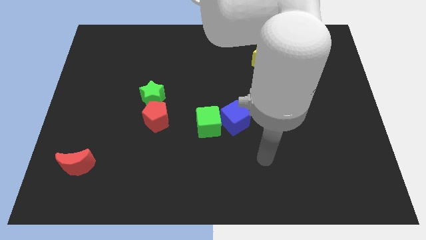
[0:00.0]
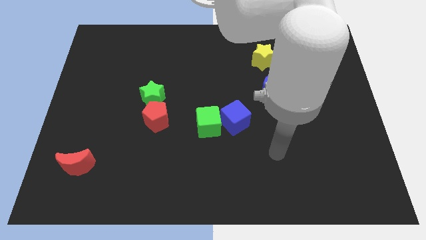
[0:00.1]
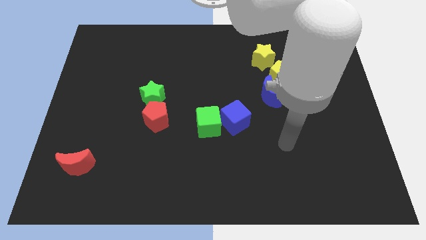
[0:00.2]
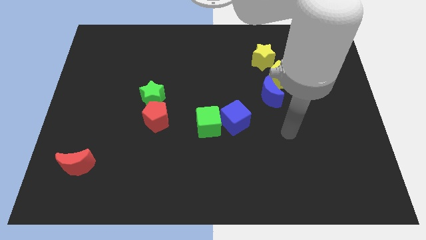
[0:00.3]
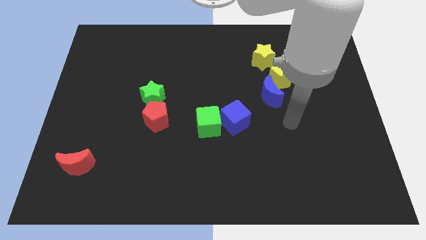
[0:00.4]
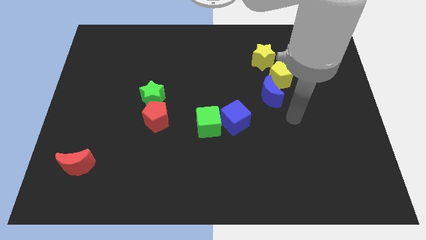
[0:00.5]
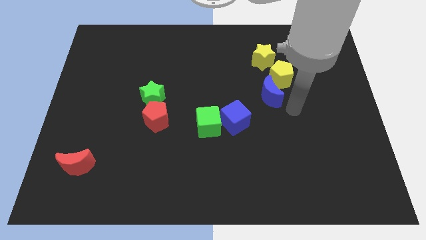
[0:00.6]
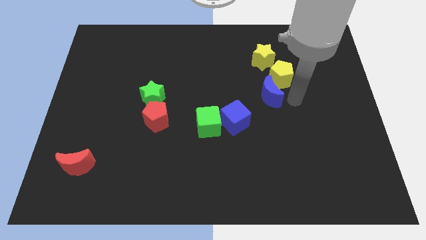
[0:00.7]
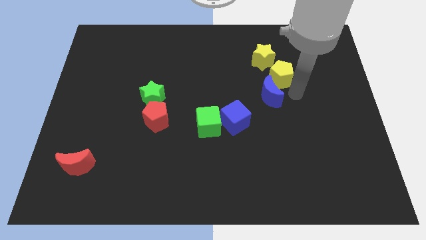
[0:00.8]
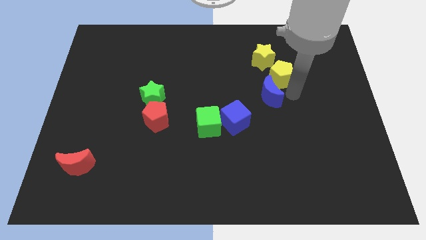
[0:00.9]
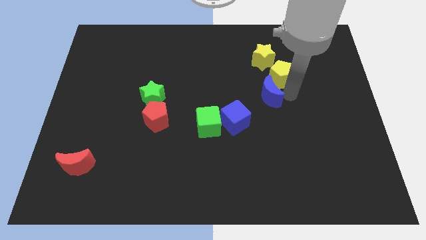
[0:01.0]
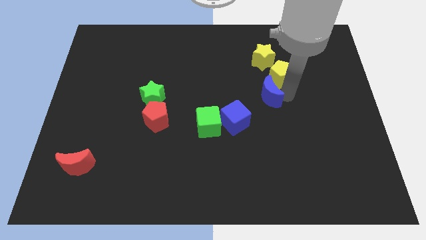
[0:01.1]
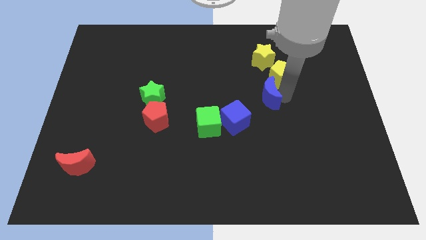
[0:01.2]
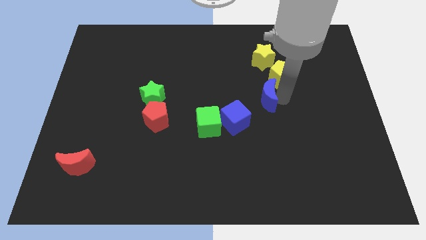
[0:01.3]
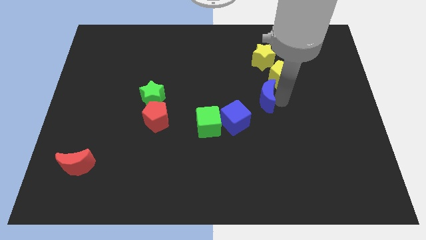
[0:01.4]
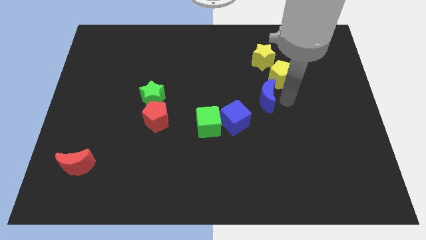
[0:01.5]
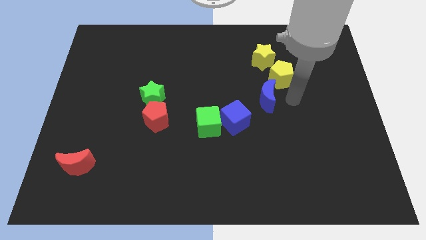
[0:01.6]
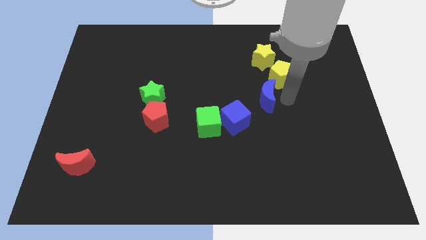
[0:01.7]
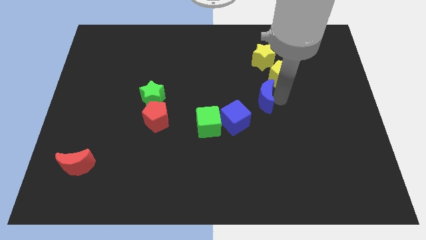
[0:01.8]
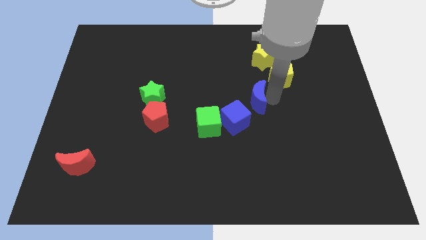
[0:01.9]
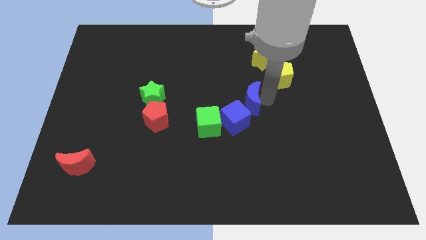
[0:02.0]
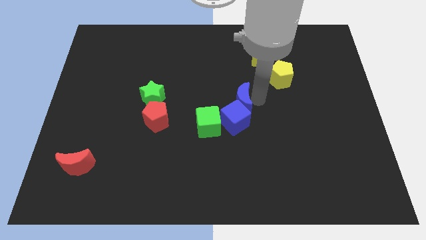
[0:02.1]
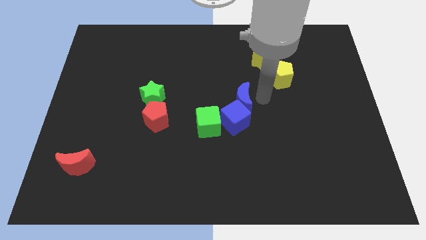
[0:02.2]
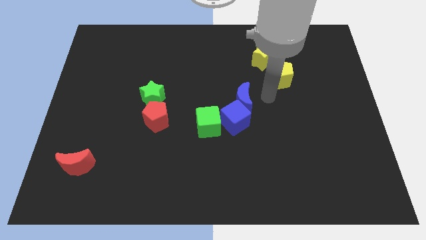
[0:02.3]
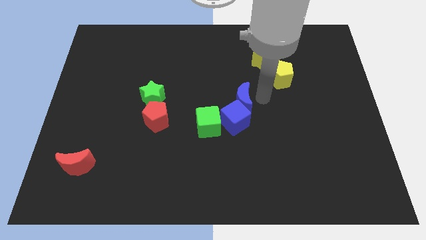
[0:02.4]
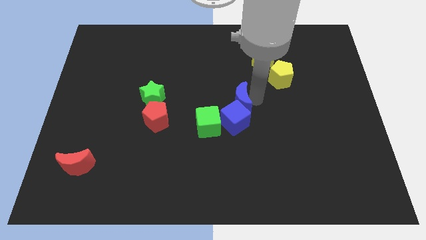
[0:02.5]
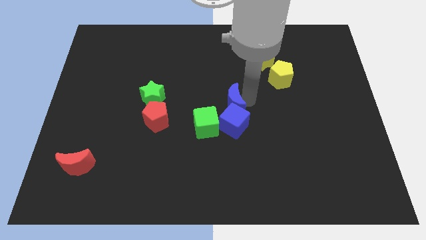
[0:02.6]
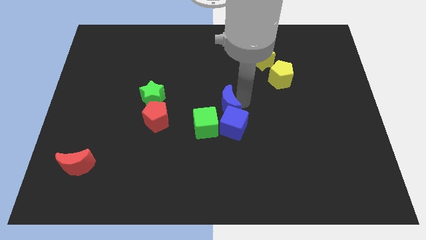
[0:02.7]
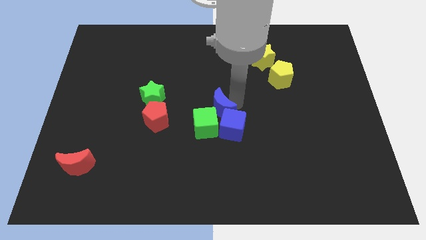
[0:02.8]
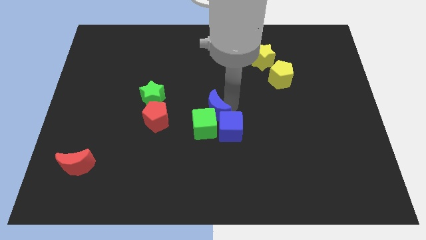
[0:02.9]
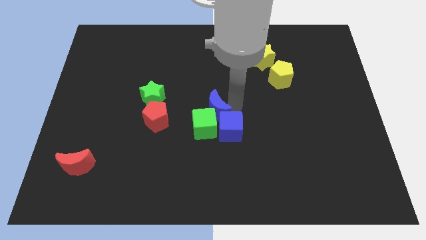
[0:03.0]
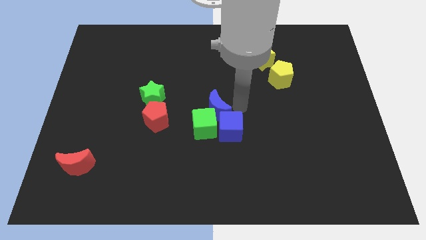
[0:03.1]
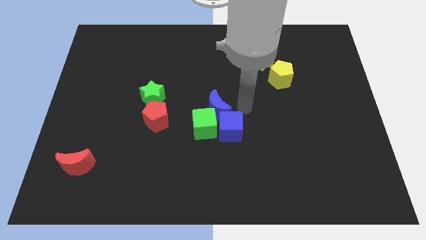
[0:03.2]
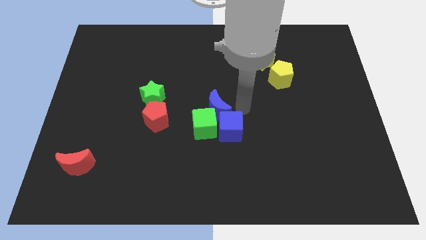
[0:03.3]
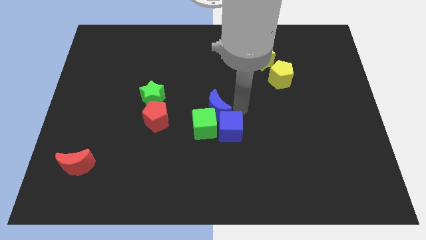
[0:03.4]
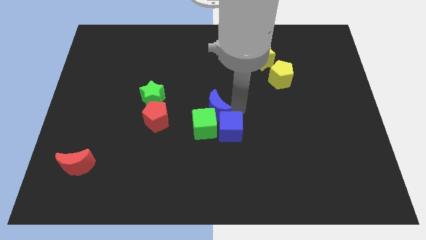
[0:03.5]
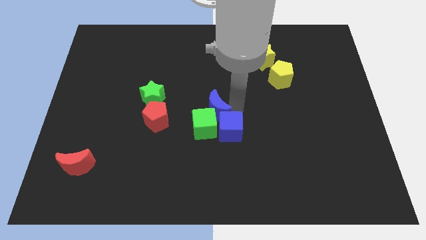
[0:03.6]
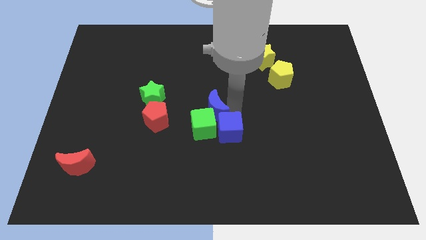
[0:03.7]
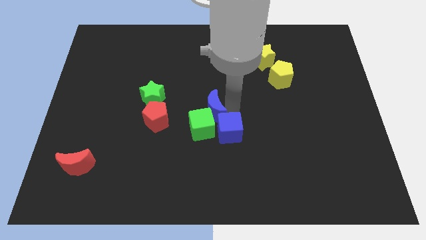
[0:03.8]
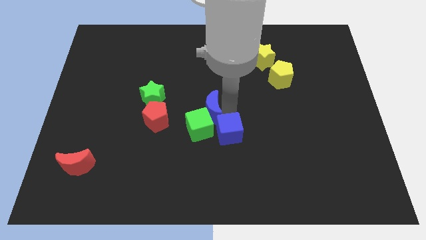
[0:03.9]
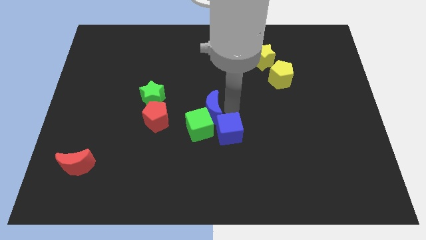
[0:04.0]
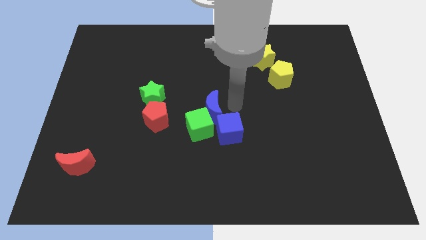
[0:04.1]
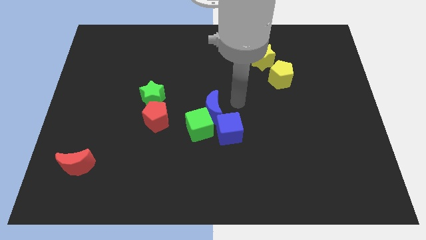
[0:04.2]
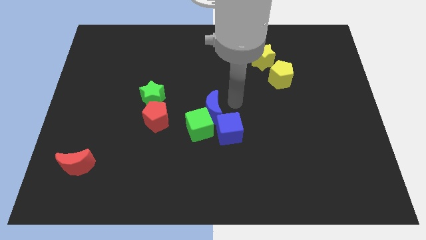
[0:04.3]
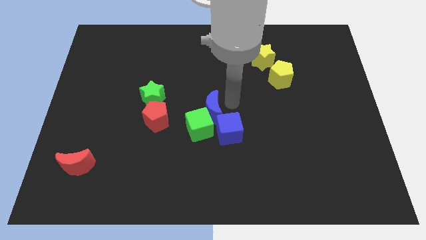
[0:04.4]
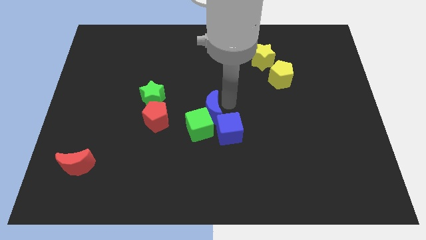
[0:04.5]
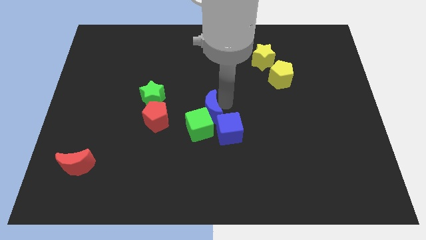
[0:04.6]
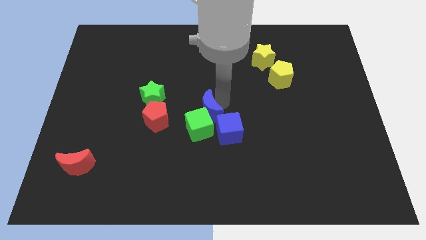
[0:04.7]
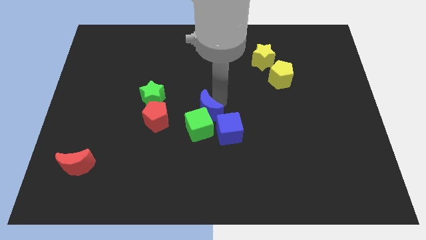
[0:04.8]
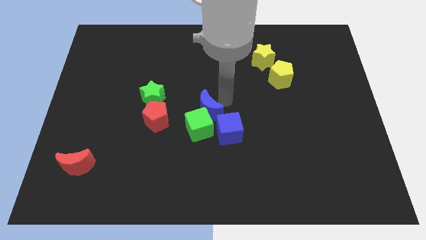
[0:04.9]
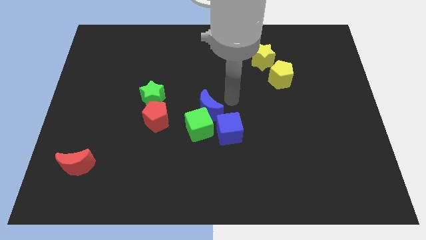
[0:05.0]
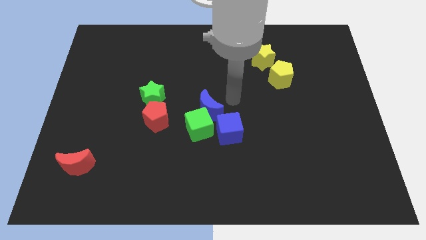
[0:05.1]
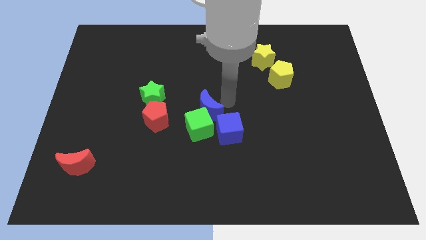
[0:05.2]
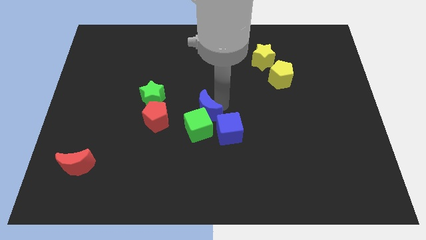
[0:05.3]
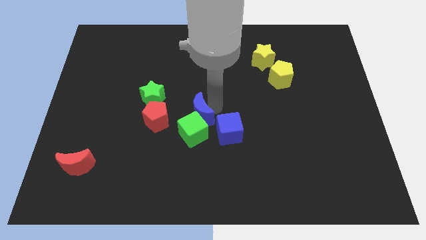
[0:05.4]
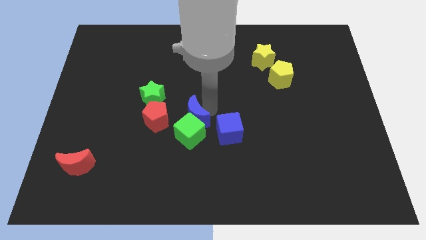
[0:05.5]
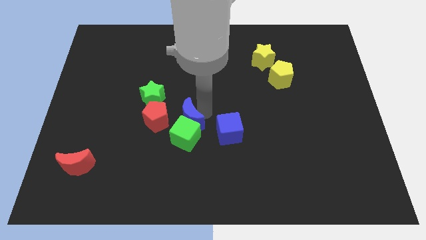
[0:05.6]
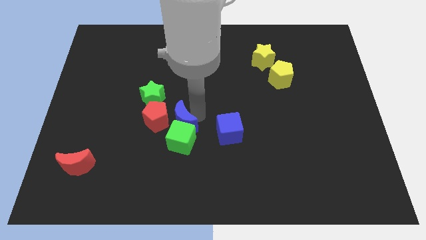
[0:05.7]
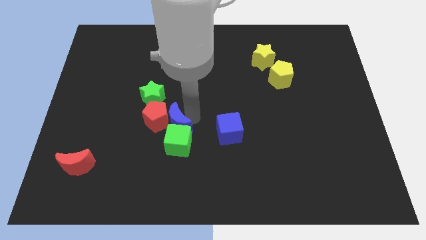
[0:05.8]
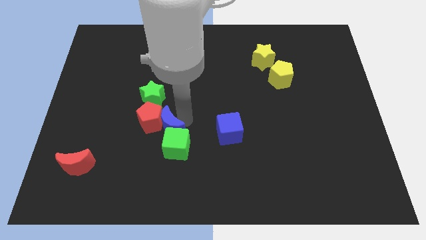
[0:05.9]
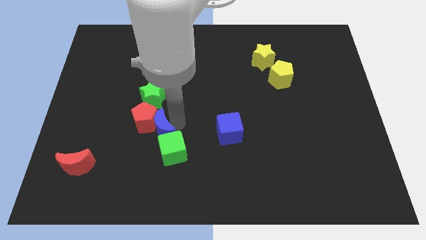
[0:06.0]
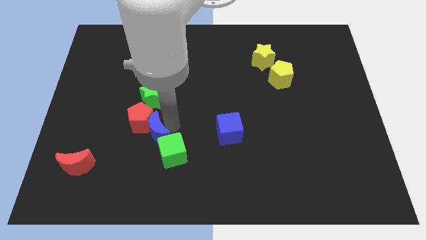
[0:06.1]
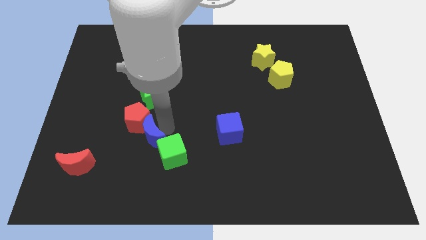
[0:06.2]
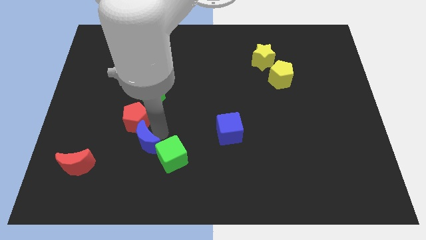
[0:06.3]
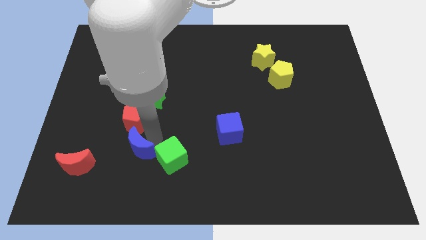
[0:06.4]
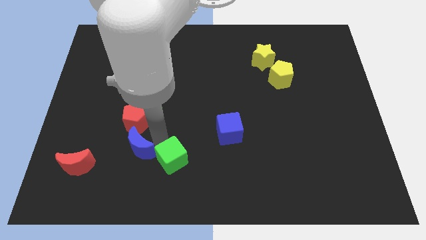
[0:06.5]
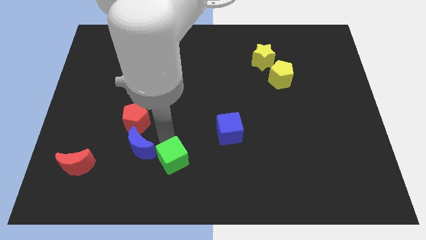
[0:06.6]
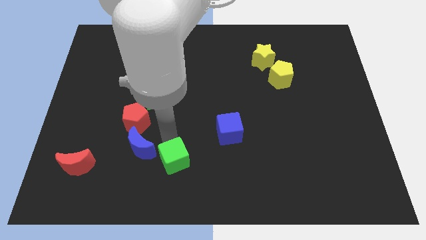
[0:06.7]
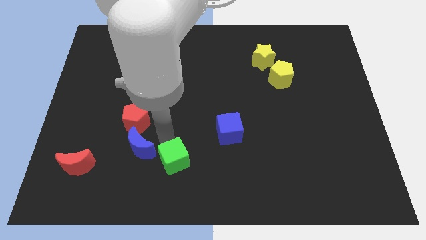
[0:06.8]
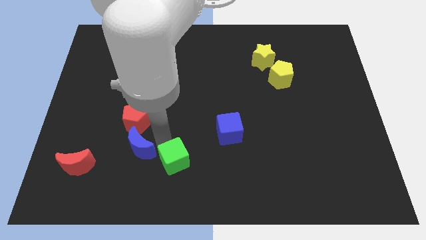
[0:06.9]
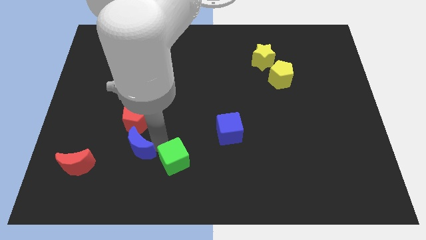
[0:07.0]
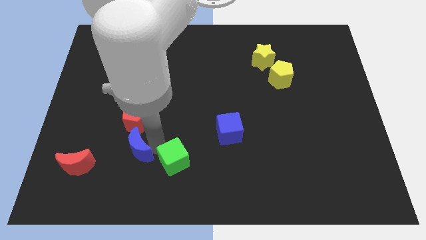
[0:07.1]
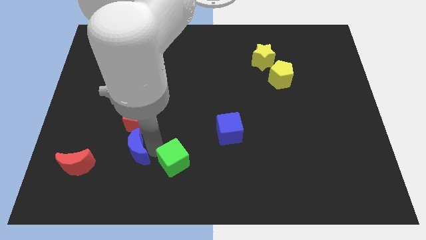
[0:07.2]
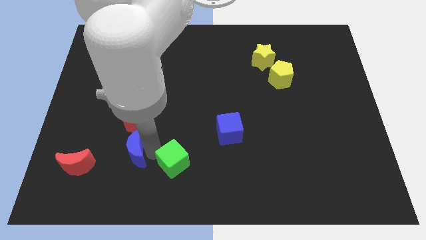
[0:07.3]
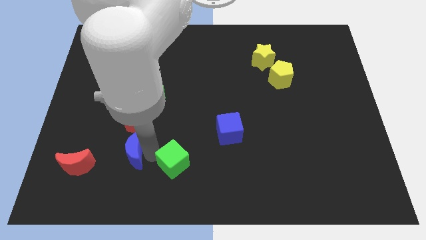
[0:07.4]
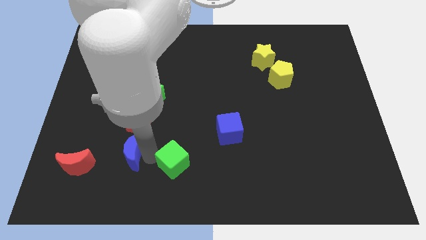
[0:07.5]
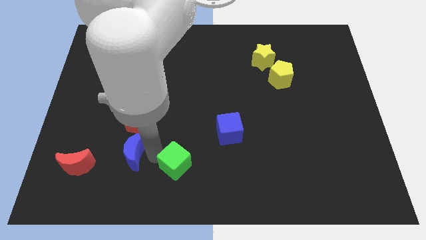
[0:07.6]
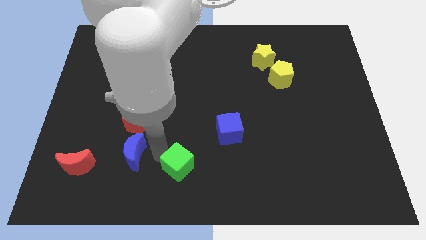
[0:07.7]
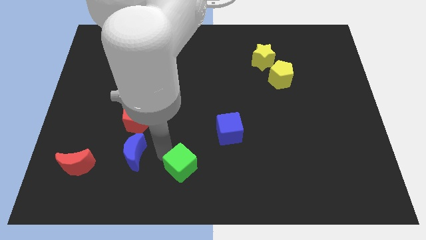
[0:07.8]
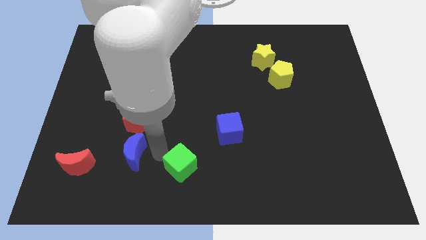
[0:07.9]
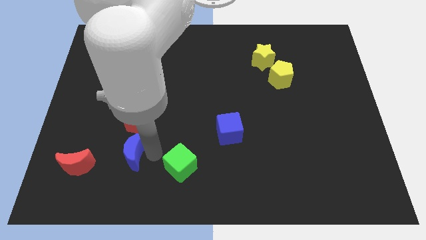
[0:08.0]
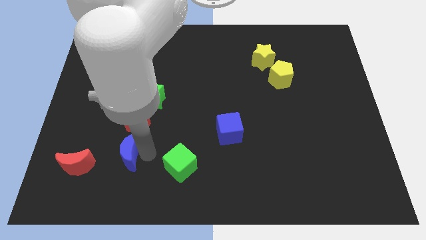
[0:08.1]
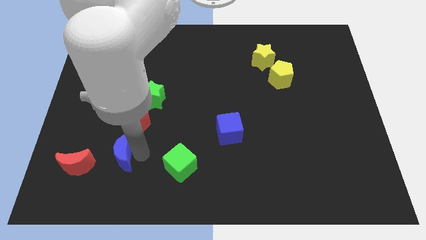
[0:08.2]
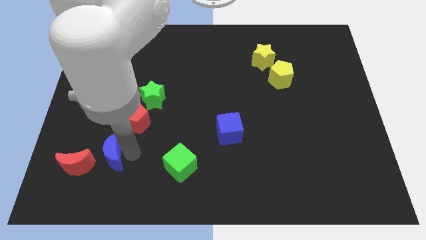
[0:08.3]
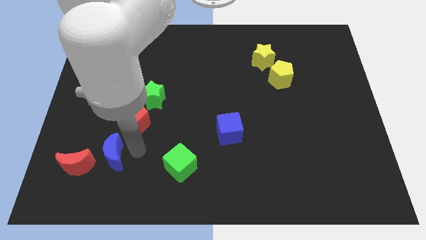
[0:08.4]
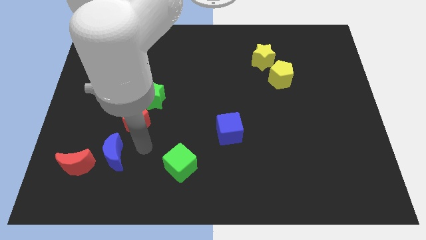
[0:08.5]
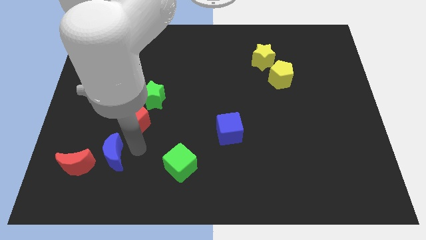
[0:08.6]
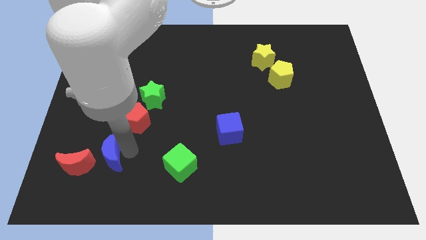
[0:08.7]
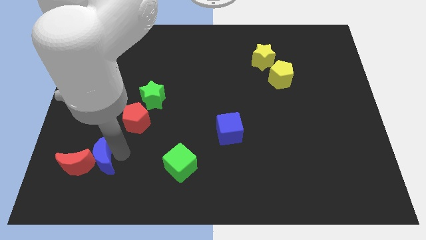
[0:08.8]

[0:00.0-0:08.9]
slide the blue moon close to the red moon
